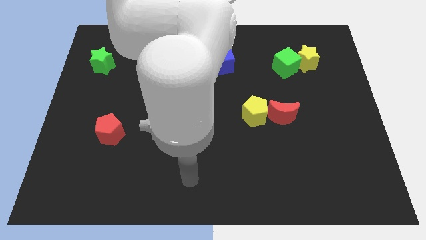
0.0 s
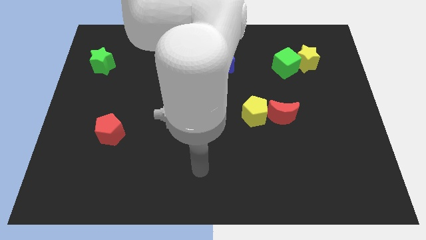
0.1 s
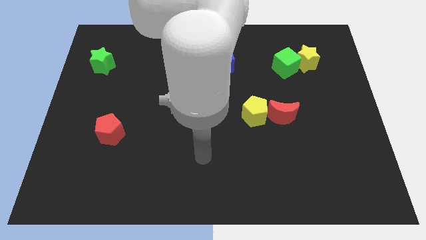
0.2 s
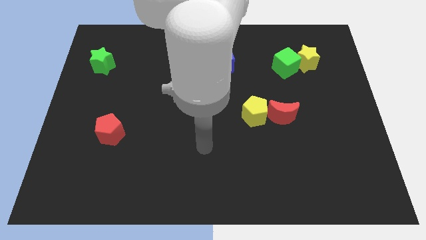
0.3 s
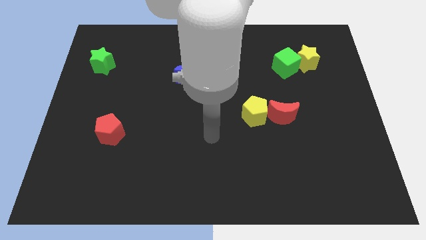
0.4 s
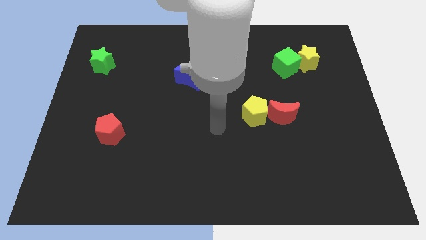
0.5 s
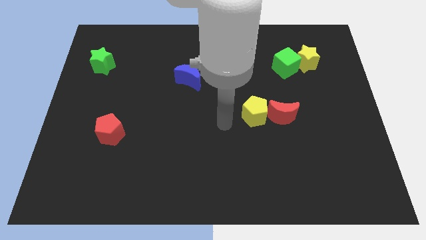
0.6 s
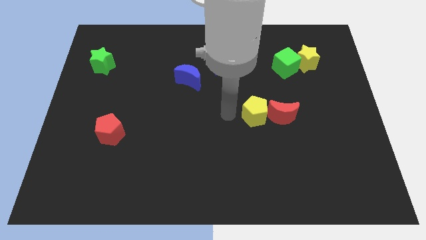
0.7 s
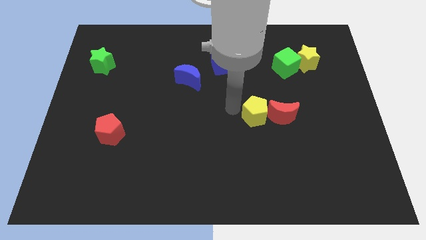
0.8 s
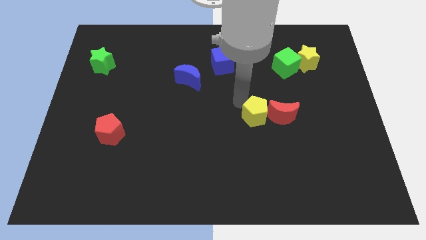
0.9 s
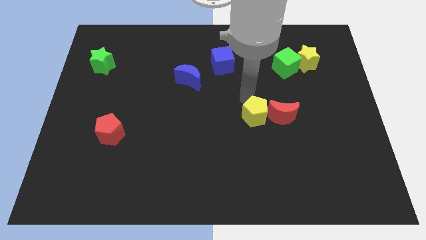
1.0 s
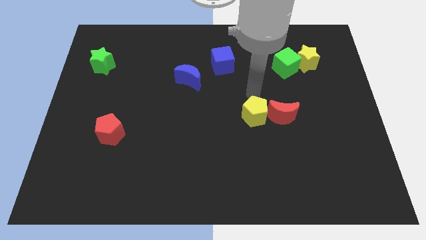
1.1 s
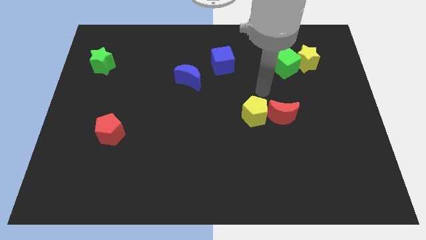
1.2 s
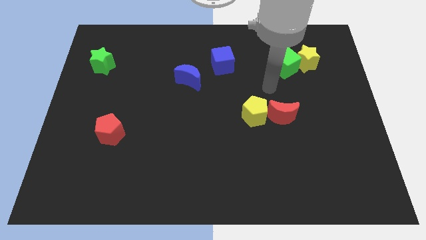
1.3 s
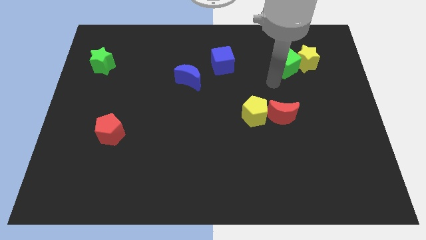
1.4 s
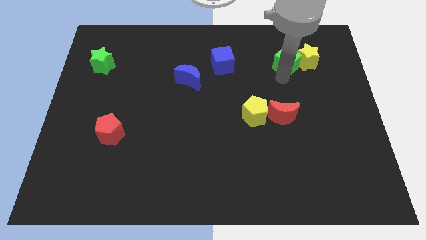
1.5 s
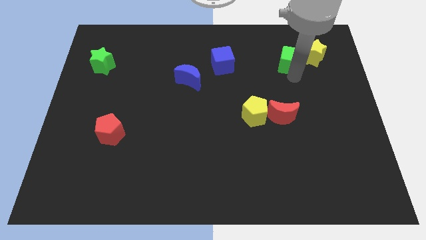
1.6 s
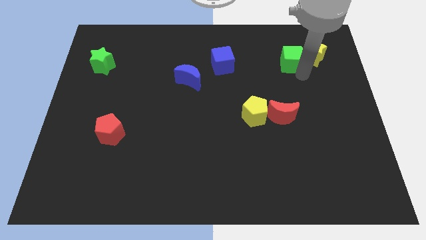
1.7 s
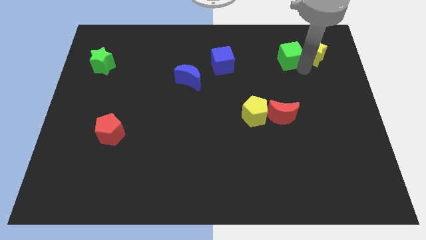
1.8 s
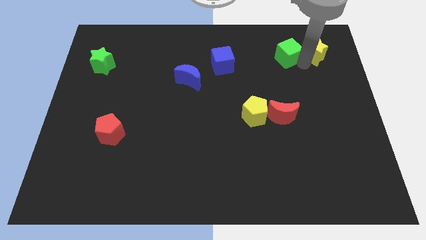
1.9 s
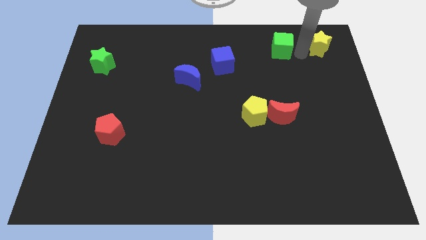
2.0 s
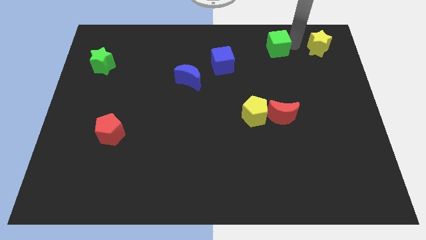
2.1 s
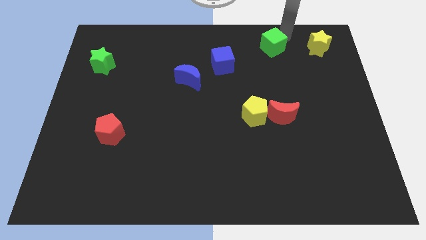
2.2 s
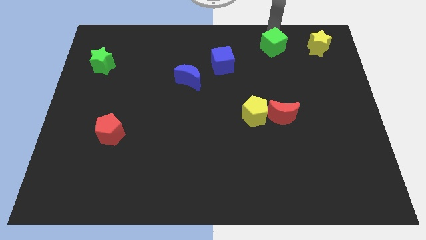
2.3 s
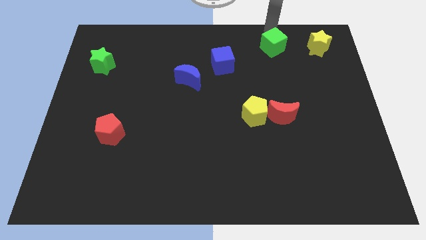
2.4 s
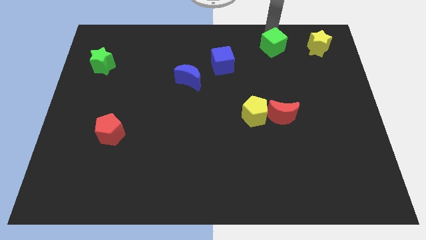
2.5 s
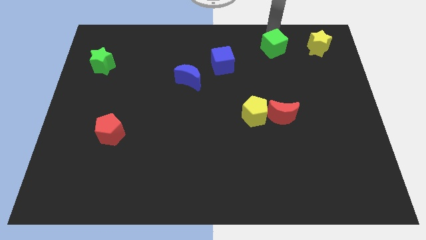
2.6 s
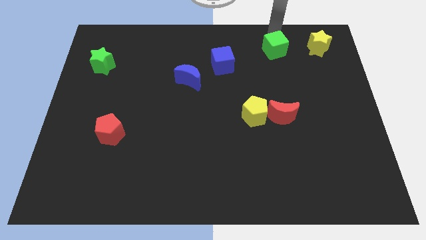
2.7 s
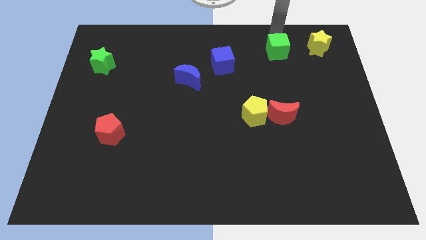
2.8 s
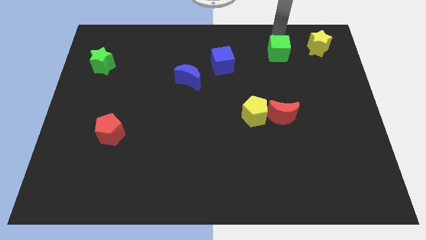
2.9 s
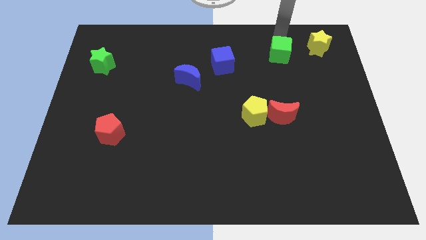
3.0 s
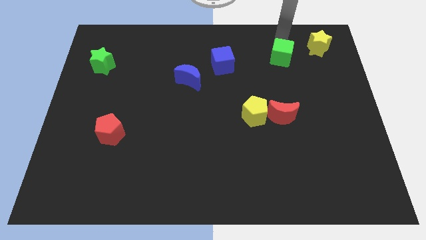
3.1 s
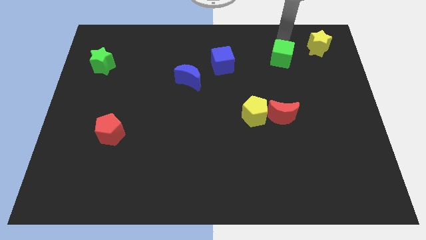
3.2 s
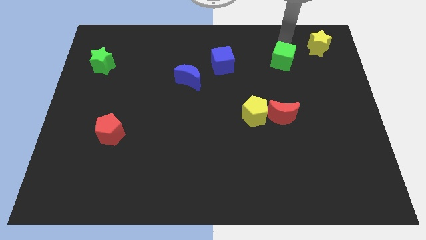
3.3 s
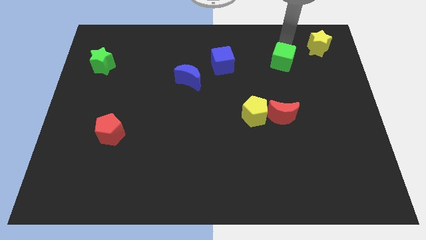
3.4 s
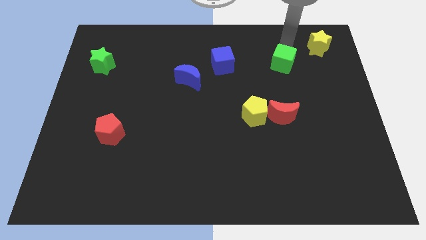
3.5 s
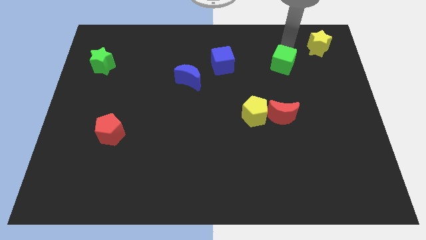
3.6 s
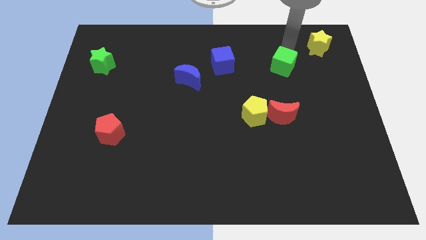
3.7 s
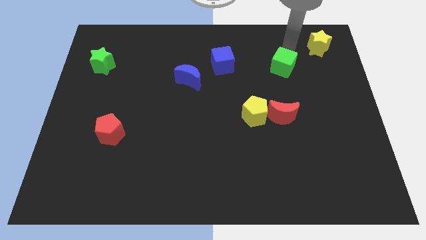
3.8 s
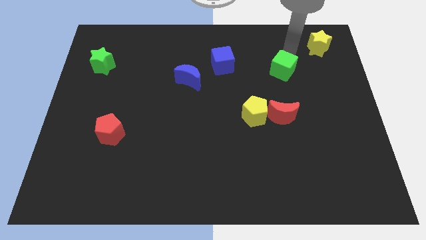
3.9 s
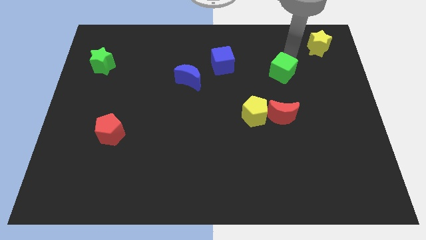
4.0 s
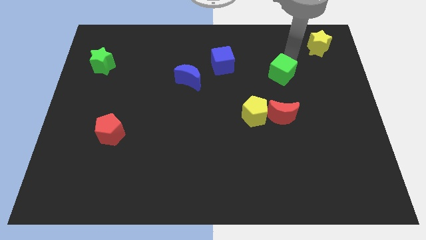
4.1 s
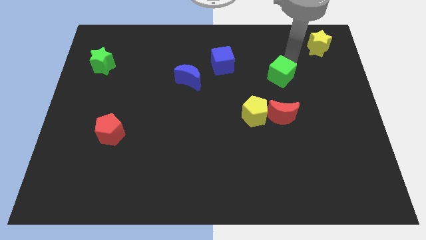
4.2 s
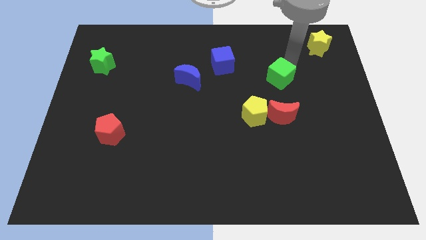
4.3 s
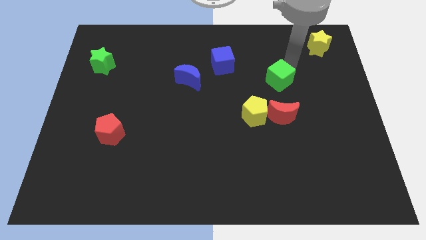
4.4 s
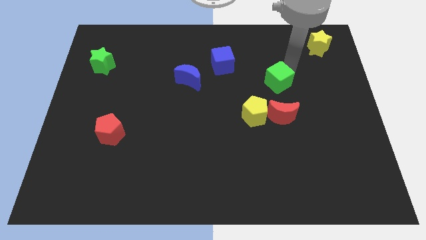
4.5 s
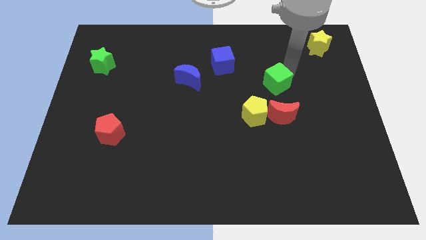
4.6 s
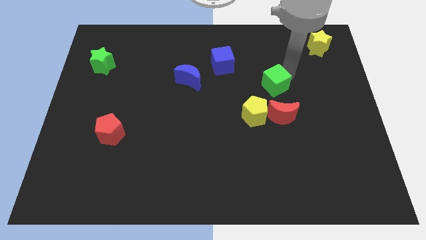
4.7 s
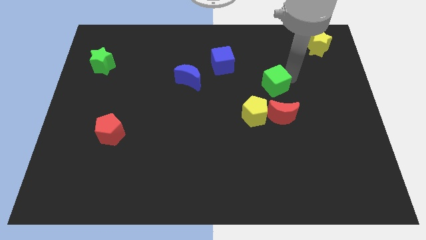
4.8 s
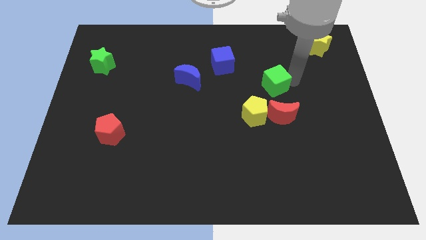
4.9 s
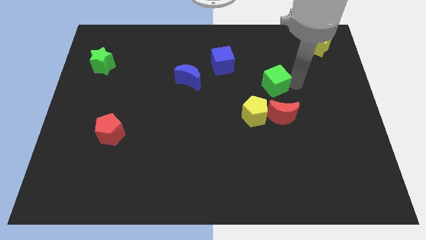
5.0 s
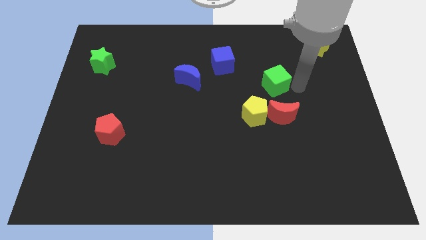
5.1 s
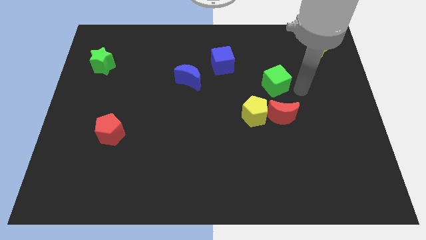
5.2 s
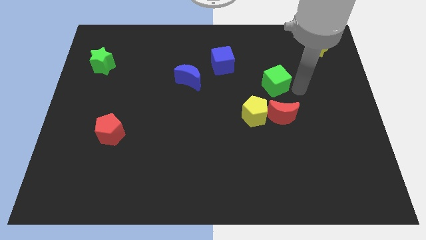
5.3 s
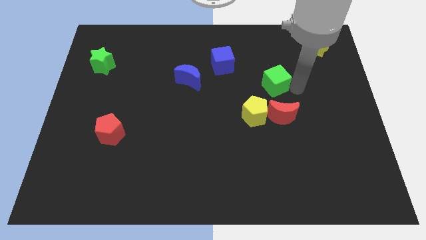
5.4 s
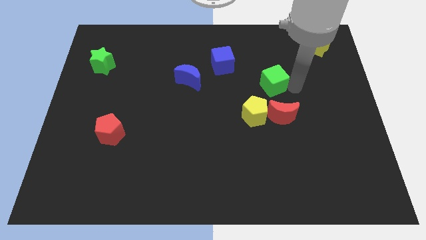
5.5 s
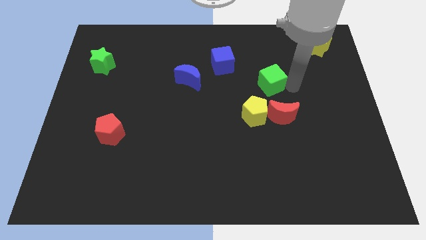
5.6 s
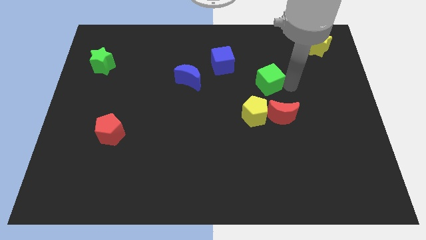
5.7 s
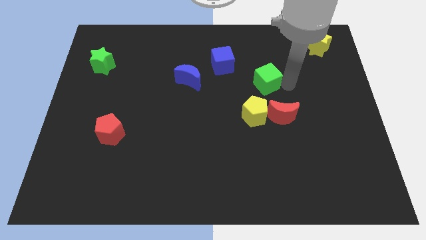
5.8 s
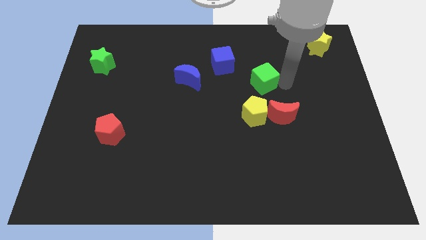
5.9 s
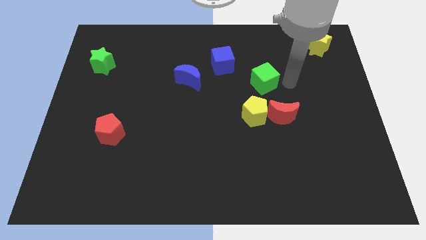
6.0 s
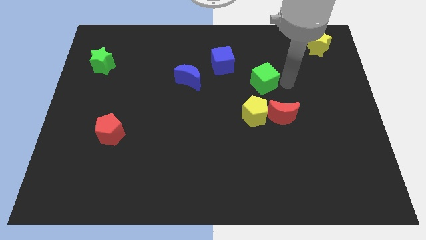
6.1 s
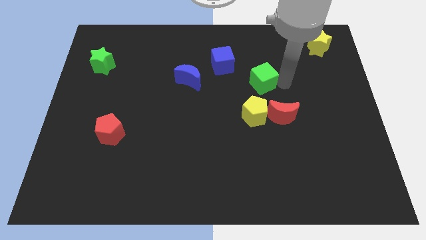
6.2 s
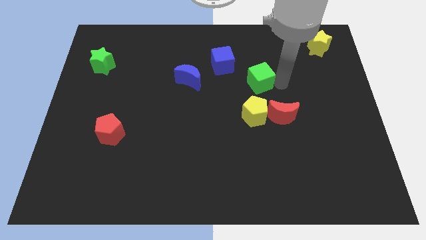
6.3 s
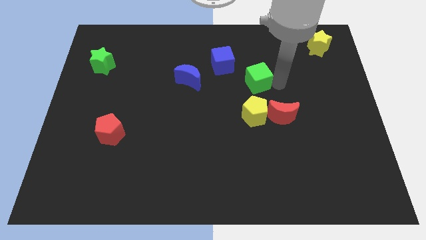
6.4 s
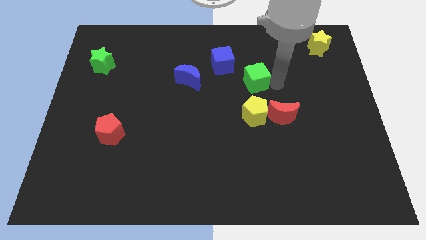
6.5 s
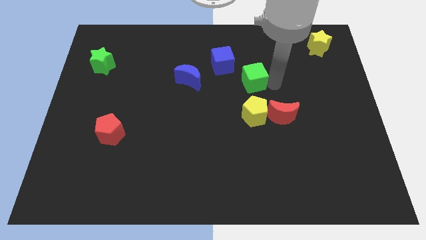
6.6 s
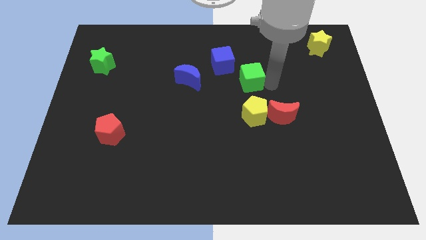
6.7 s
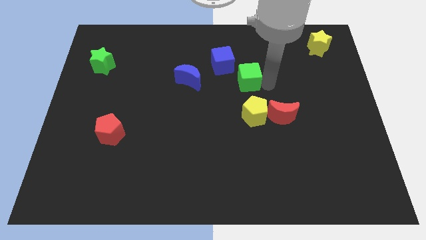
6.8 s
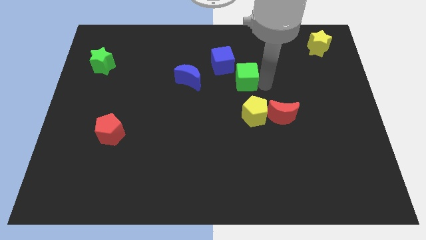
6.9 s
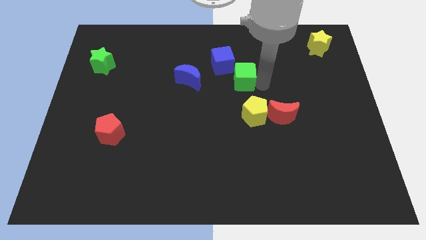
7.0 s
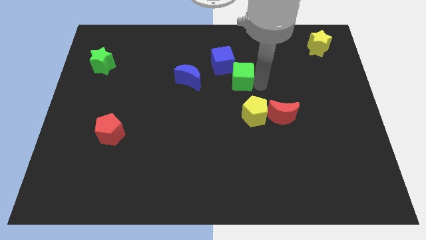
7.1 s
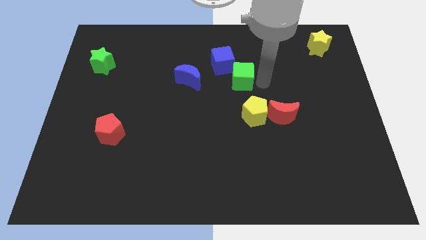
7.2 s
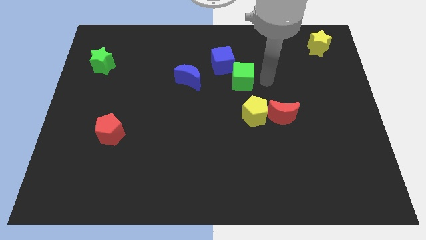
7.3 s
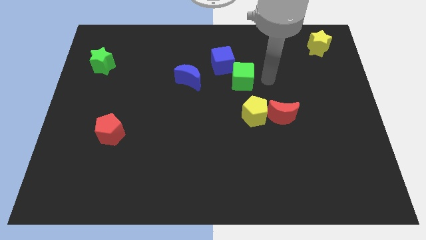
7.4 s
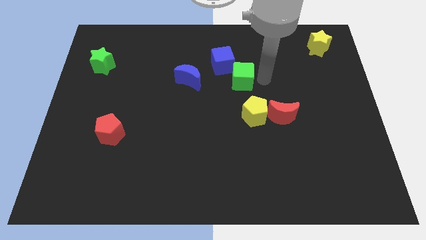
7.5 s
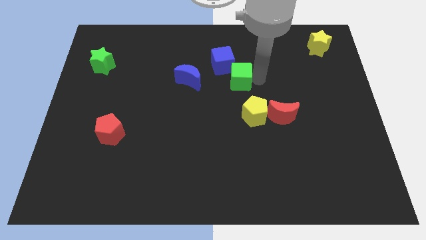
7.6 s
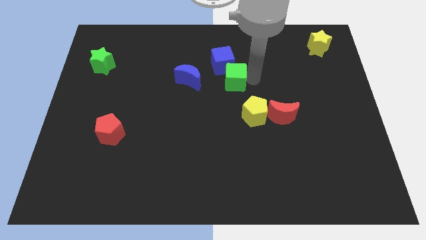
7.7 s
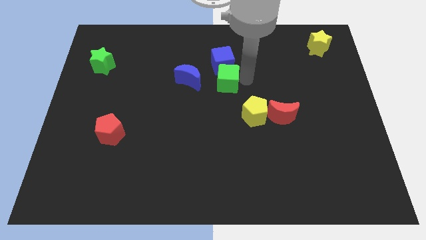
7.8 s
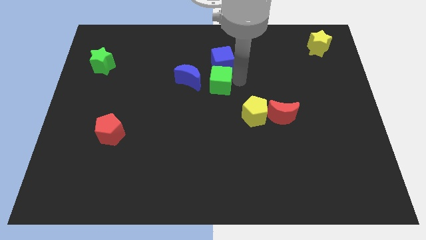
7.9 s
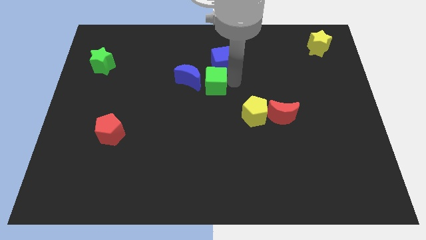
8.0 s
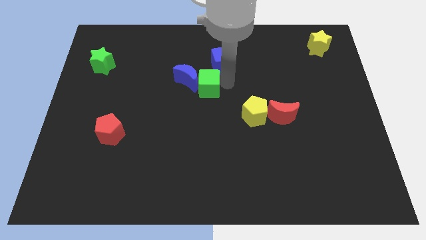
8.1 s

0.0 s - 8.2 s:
push the green cube to the blue moon
